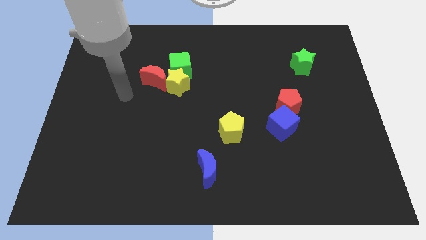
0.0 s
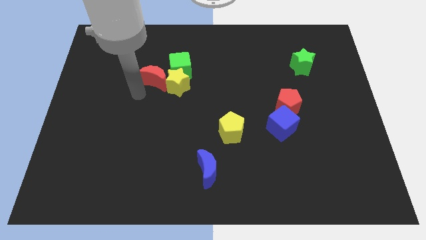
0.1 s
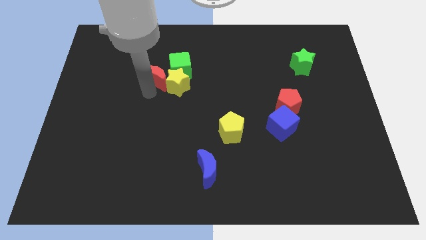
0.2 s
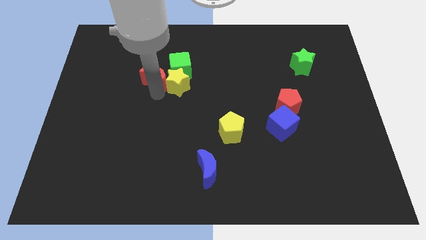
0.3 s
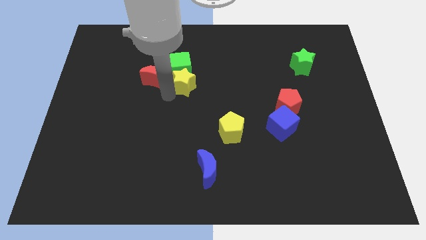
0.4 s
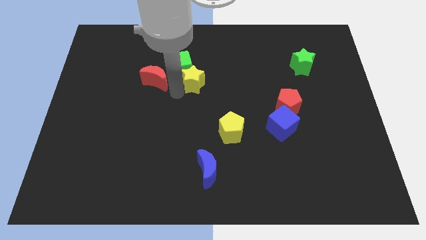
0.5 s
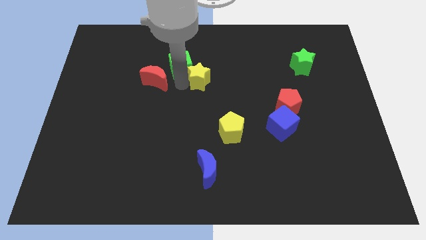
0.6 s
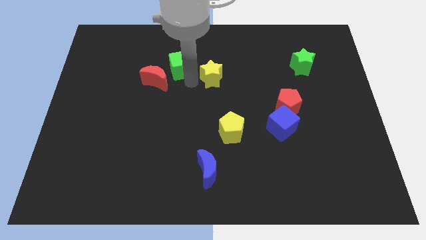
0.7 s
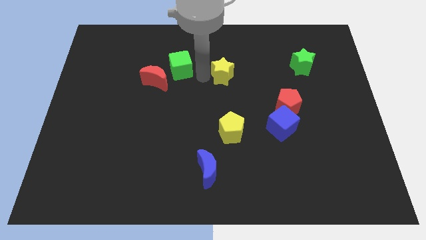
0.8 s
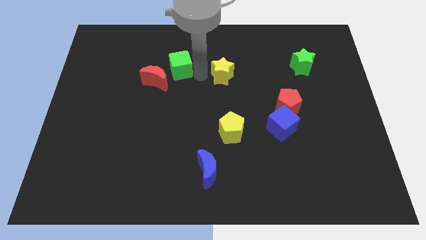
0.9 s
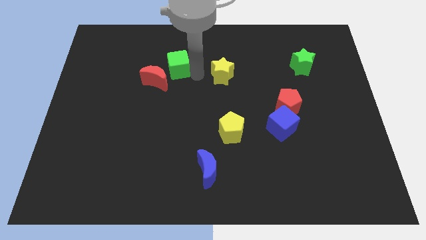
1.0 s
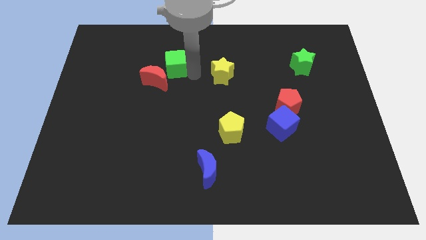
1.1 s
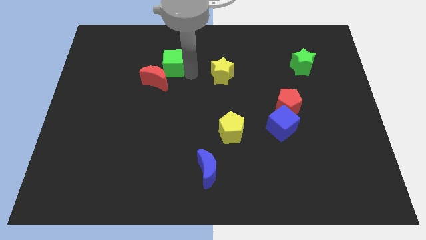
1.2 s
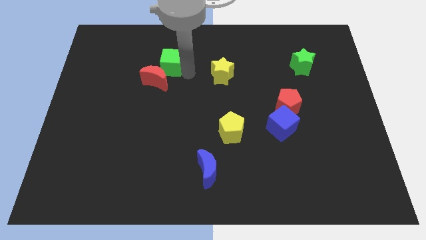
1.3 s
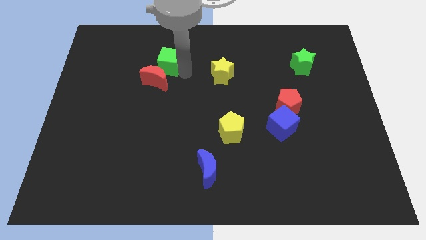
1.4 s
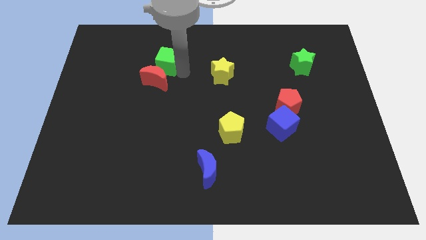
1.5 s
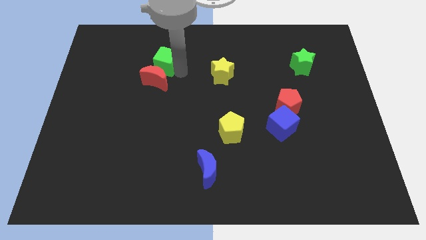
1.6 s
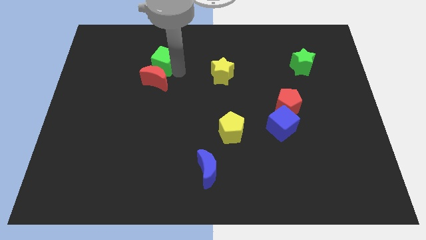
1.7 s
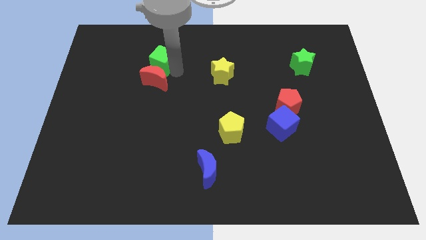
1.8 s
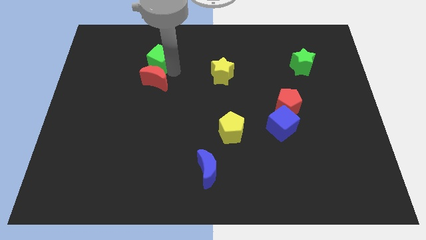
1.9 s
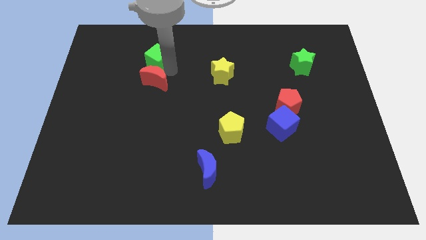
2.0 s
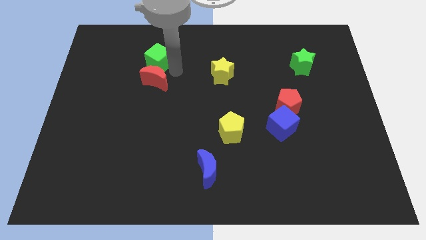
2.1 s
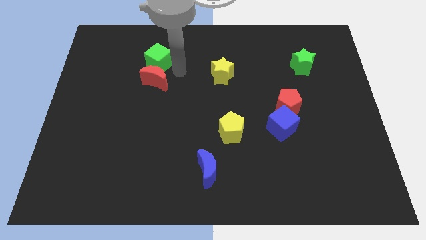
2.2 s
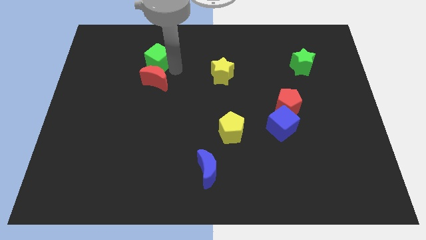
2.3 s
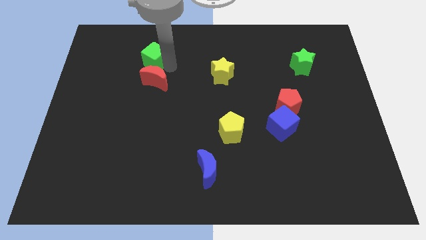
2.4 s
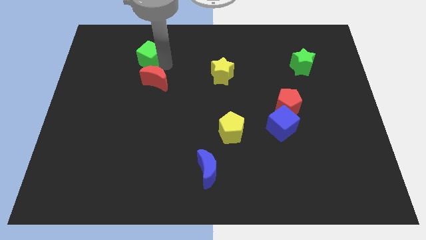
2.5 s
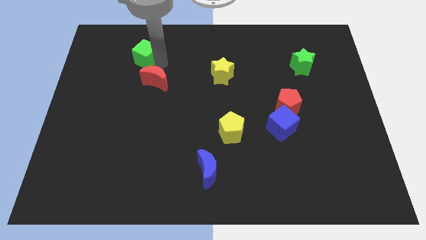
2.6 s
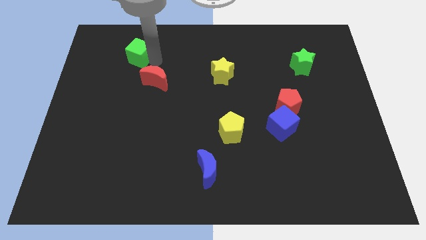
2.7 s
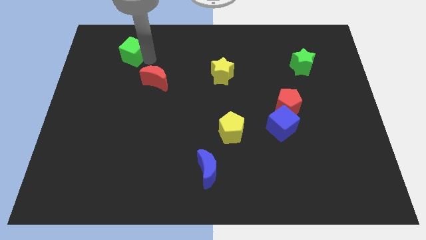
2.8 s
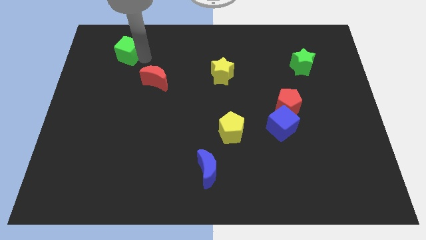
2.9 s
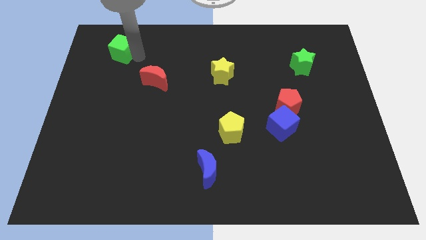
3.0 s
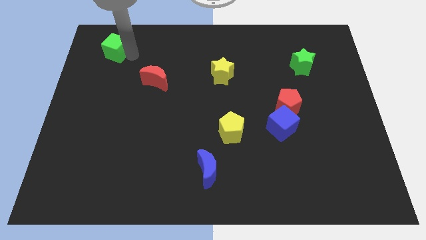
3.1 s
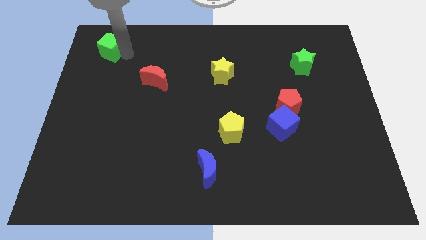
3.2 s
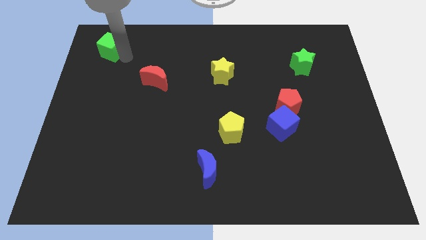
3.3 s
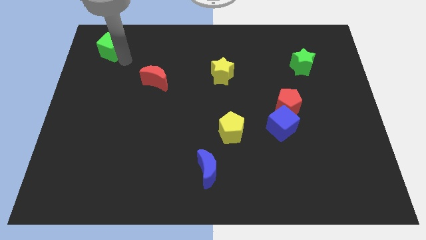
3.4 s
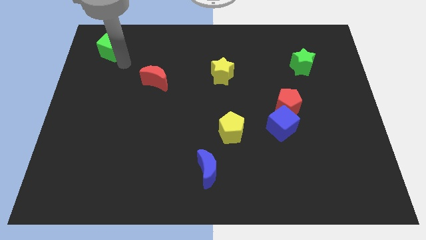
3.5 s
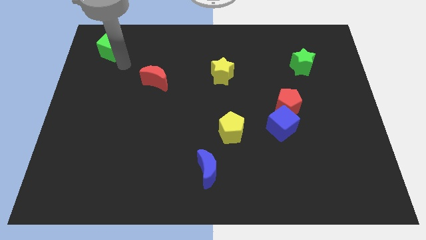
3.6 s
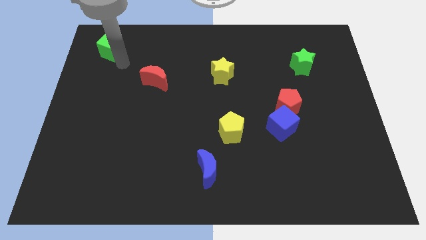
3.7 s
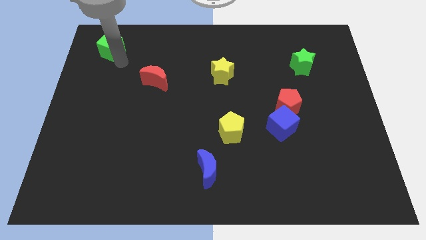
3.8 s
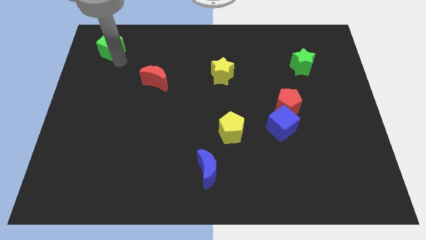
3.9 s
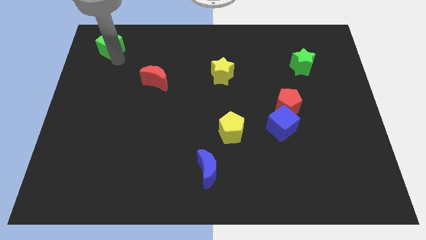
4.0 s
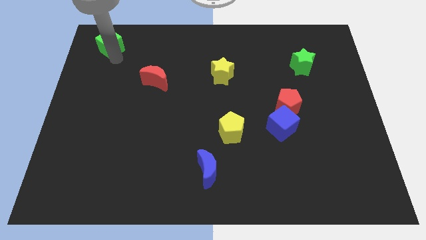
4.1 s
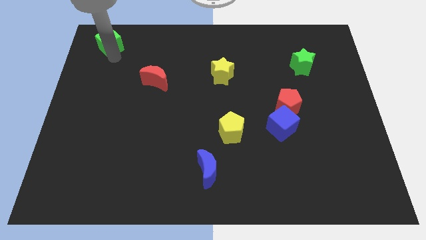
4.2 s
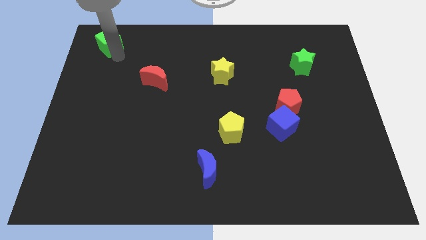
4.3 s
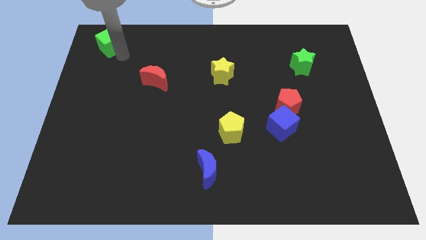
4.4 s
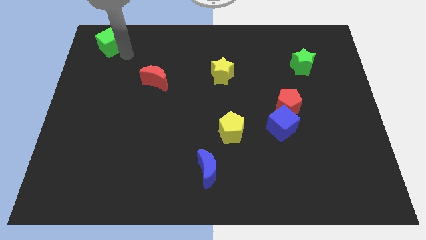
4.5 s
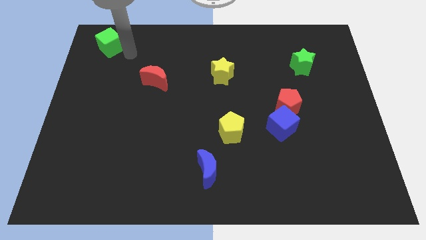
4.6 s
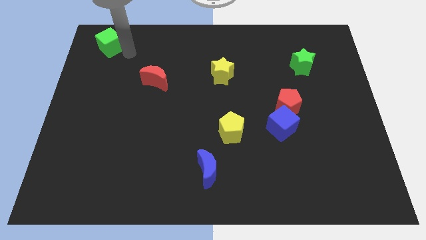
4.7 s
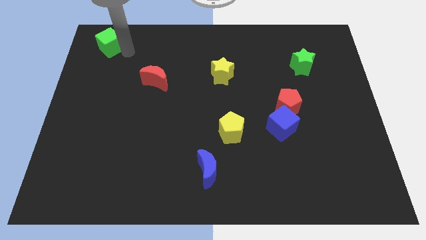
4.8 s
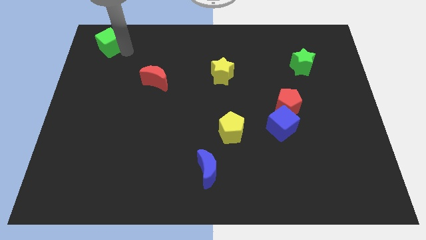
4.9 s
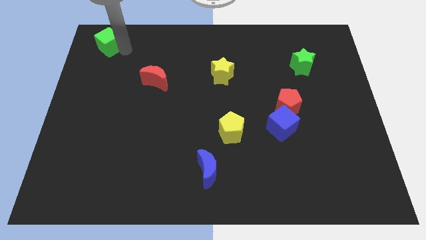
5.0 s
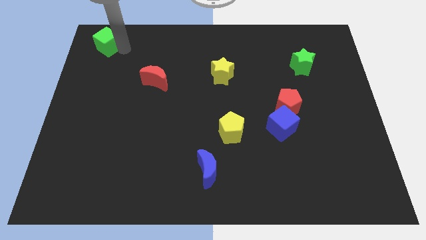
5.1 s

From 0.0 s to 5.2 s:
slide the green cube to the top left corner

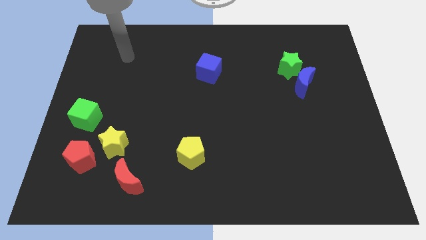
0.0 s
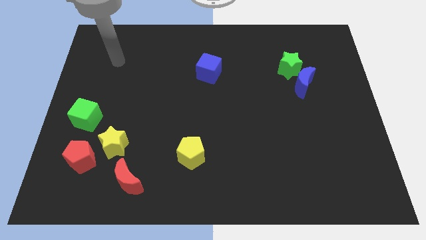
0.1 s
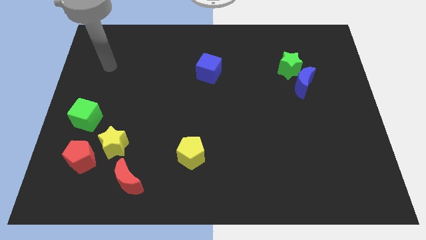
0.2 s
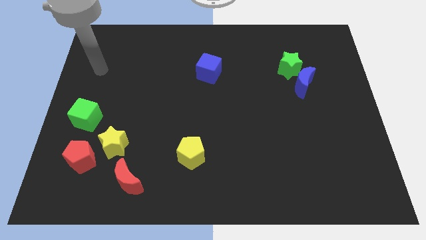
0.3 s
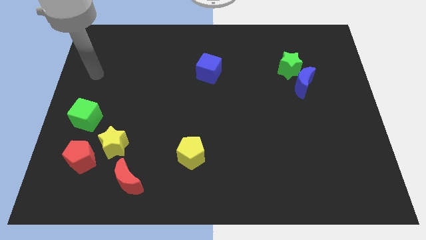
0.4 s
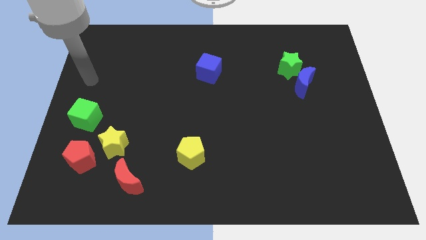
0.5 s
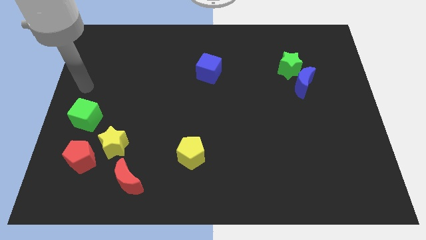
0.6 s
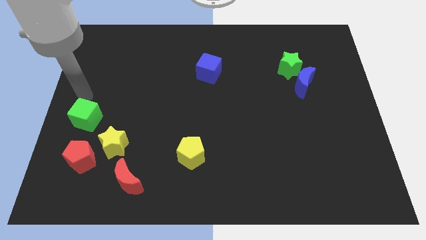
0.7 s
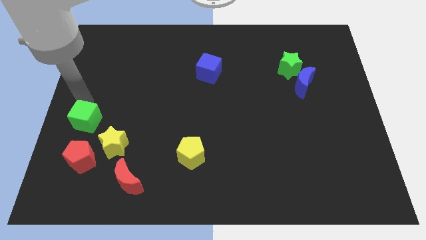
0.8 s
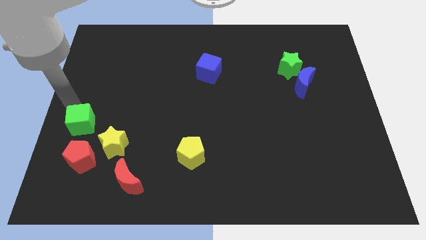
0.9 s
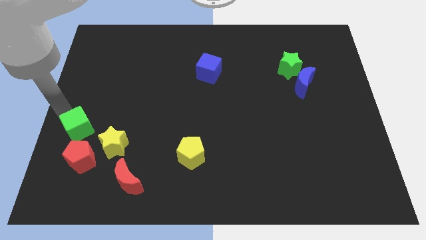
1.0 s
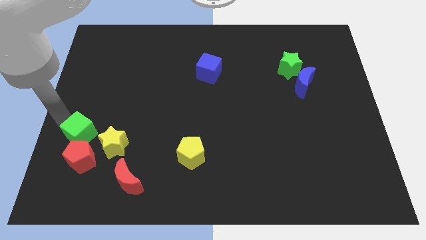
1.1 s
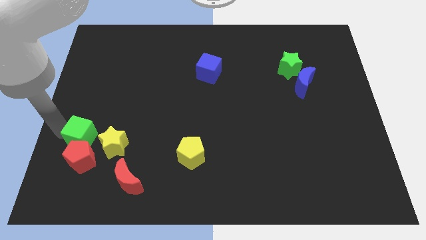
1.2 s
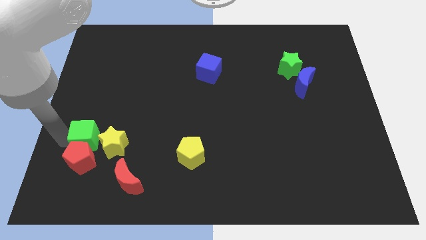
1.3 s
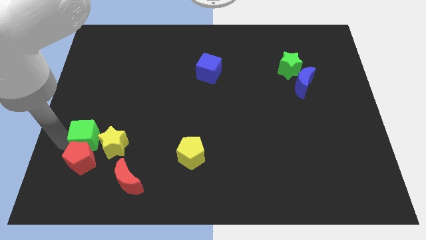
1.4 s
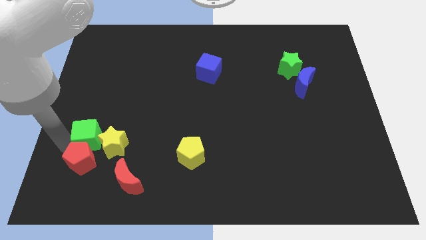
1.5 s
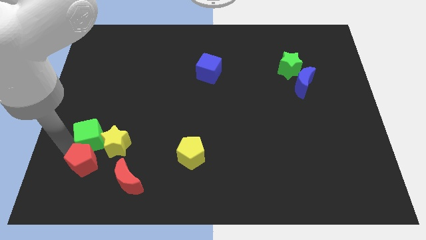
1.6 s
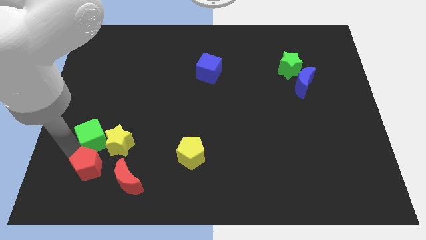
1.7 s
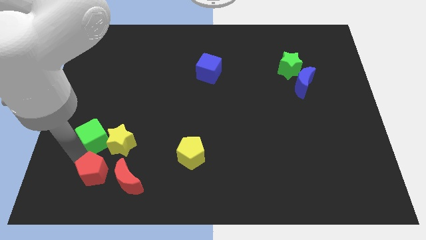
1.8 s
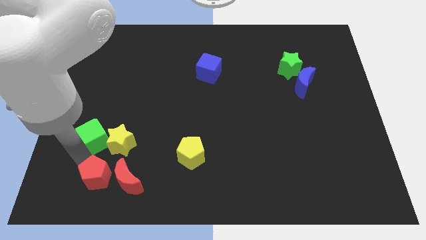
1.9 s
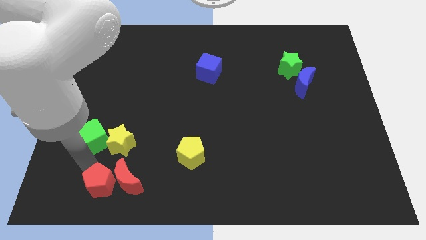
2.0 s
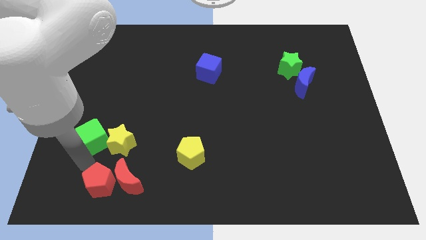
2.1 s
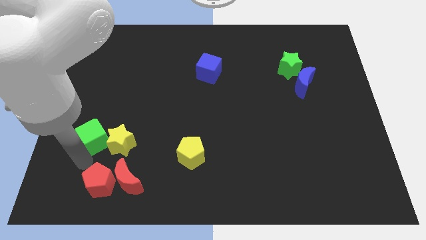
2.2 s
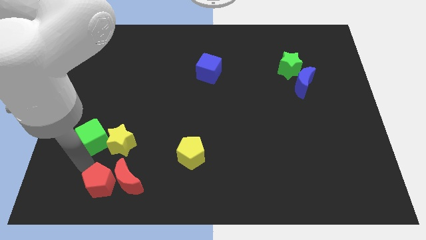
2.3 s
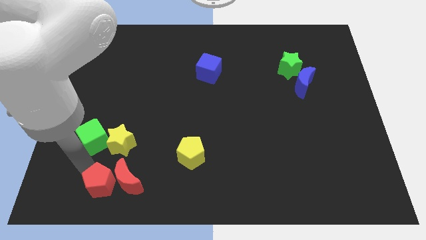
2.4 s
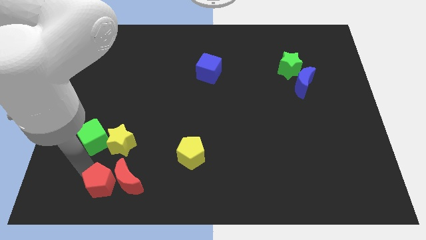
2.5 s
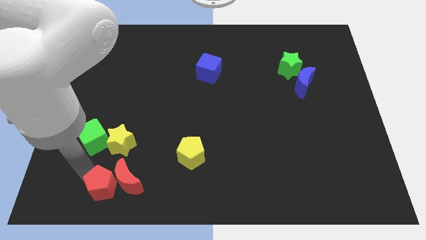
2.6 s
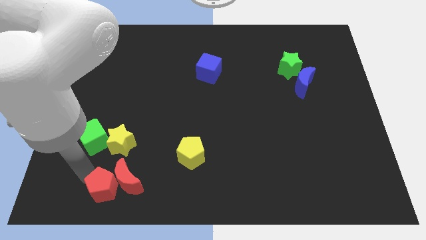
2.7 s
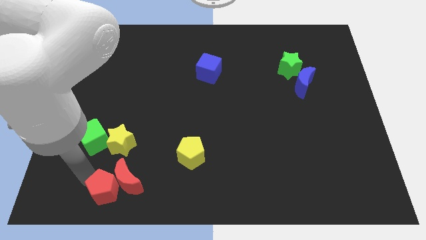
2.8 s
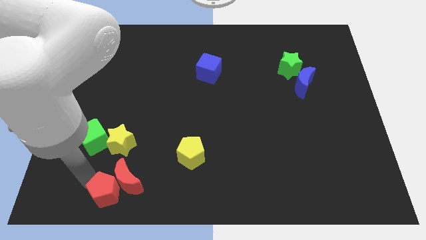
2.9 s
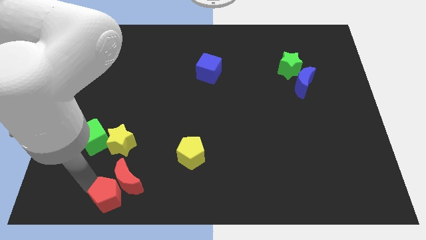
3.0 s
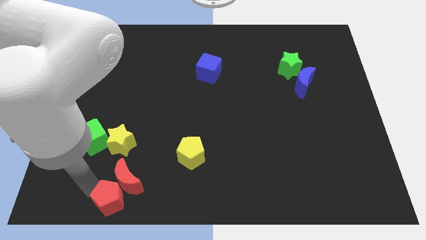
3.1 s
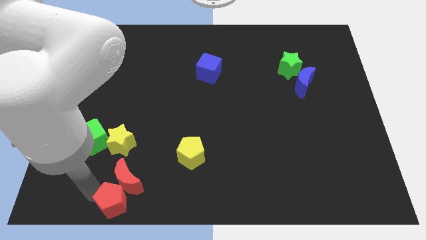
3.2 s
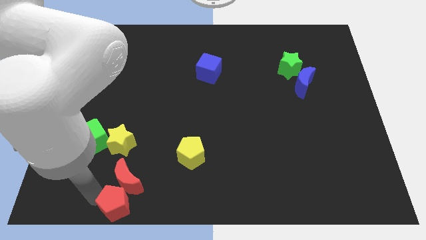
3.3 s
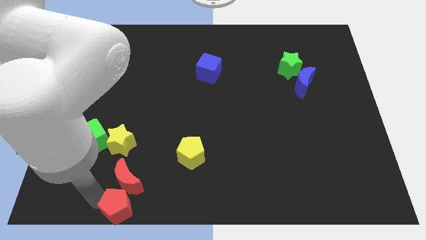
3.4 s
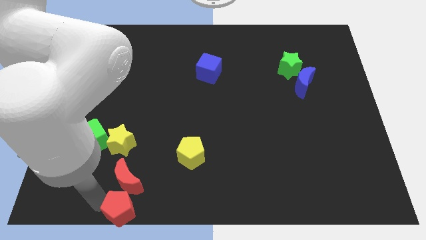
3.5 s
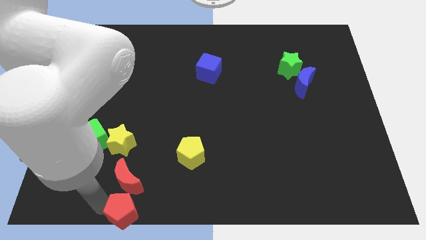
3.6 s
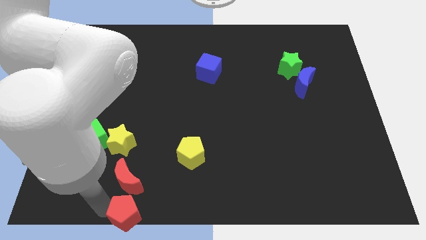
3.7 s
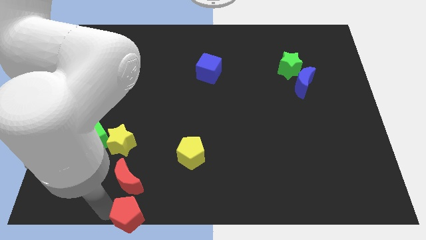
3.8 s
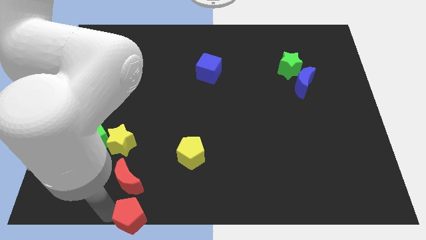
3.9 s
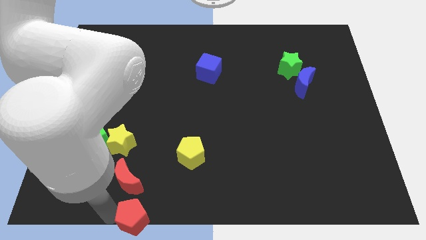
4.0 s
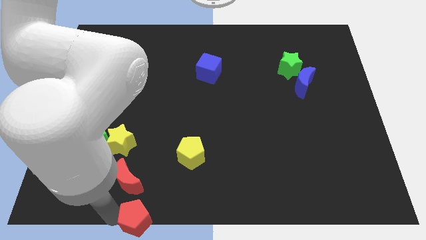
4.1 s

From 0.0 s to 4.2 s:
push the red pentagon to the bottom side
